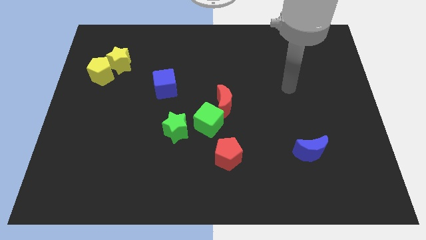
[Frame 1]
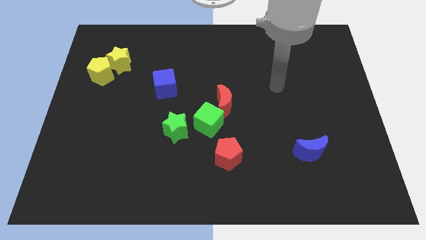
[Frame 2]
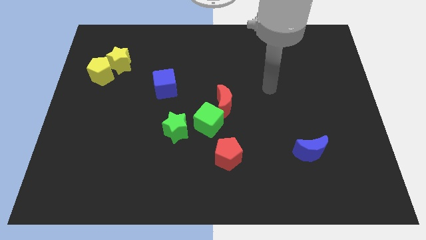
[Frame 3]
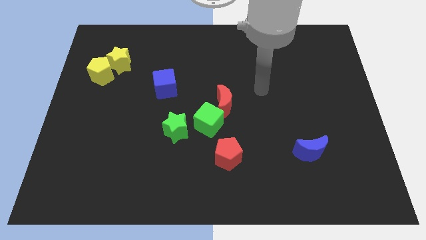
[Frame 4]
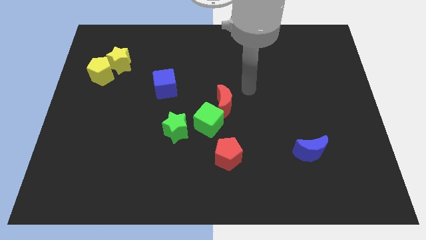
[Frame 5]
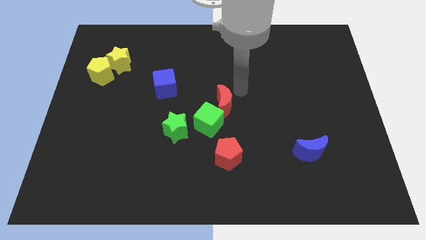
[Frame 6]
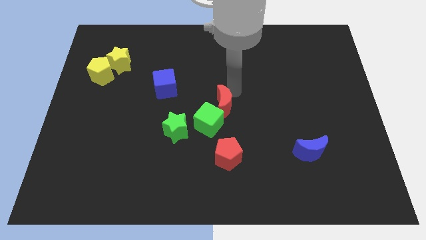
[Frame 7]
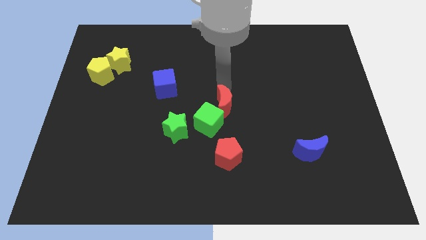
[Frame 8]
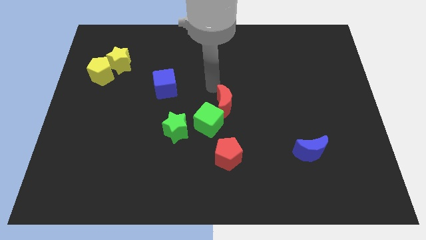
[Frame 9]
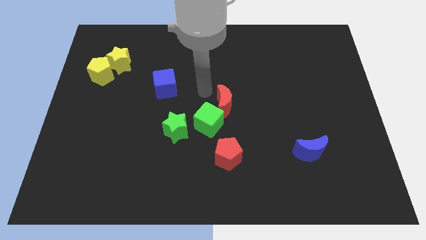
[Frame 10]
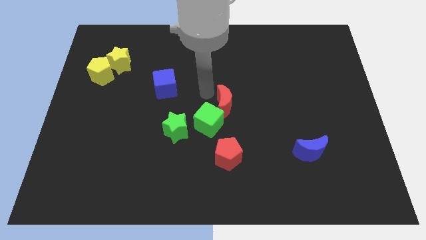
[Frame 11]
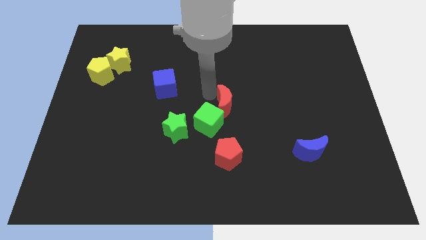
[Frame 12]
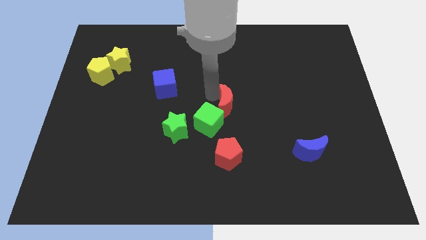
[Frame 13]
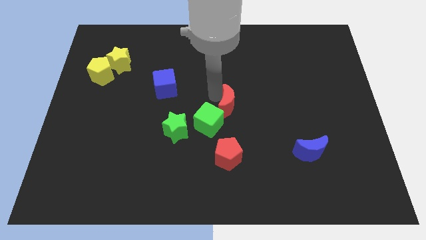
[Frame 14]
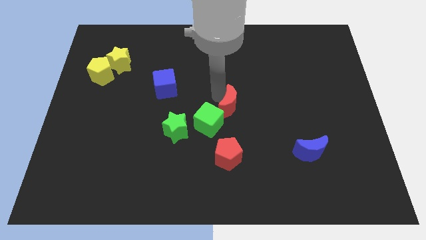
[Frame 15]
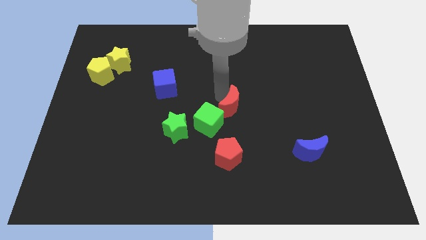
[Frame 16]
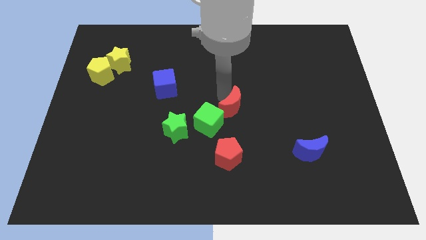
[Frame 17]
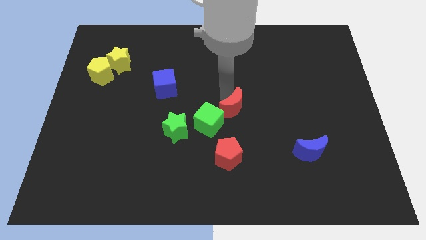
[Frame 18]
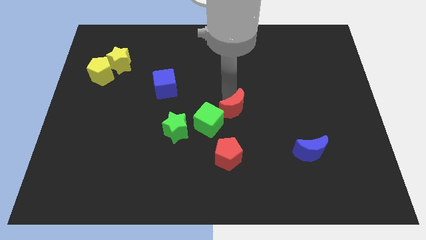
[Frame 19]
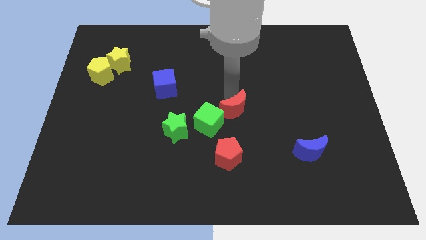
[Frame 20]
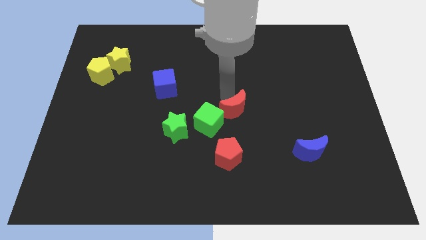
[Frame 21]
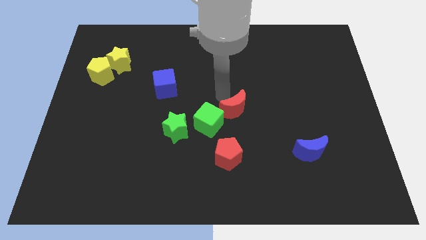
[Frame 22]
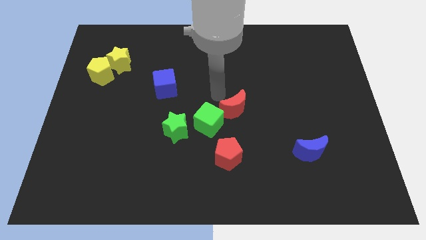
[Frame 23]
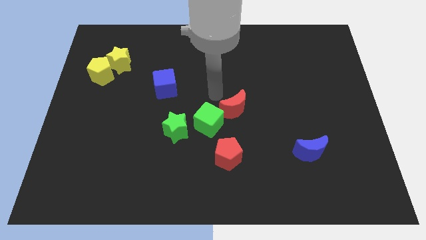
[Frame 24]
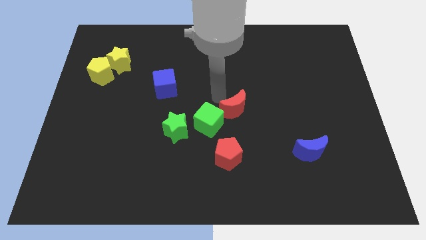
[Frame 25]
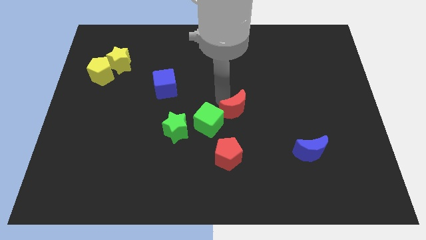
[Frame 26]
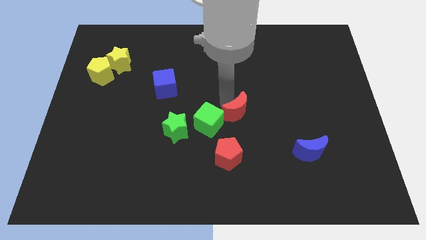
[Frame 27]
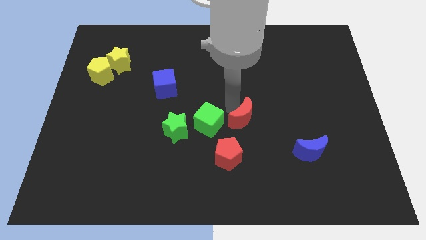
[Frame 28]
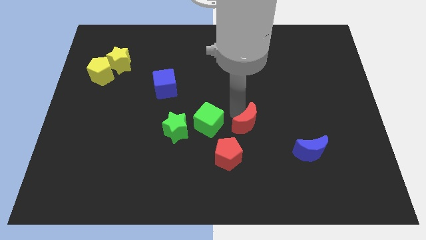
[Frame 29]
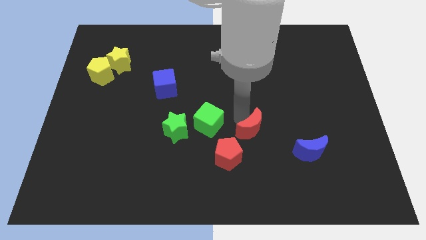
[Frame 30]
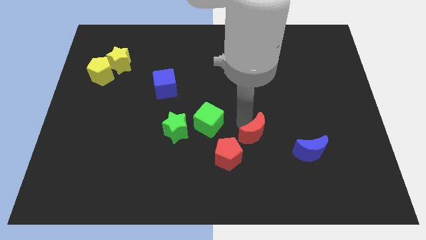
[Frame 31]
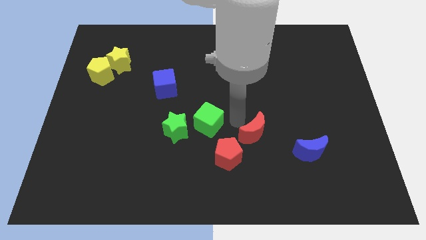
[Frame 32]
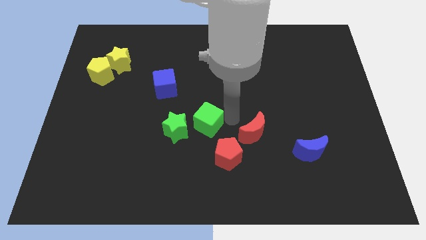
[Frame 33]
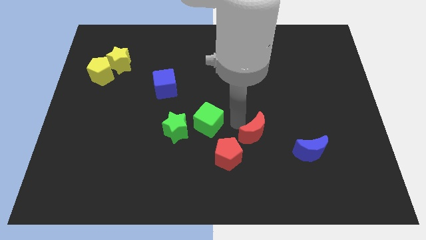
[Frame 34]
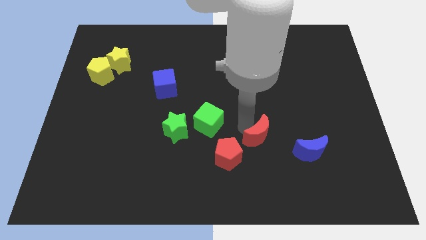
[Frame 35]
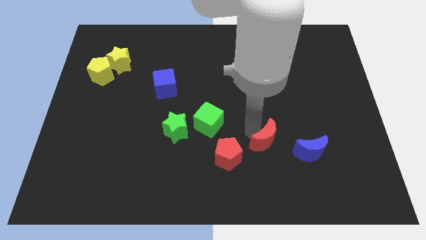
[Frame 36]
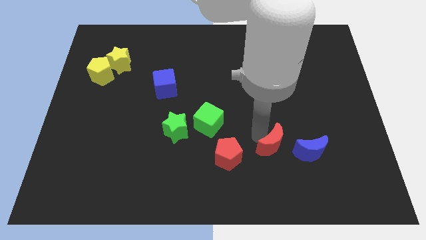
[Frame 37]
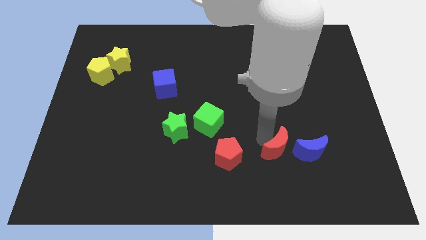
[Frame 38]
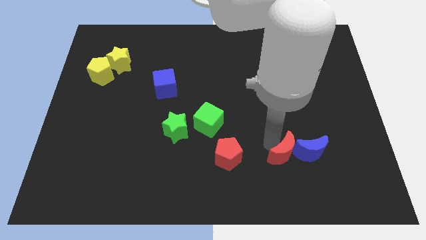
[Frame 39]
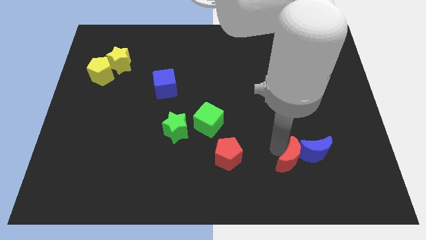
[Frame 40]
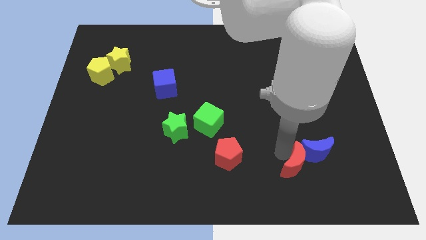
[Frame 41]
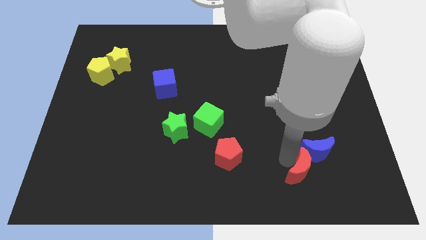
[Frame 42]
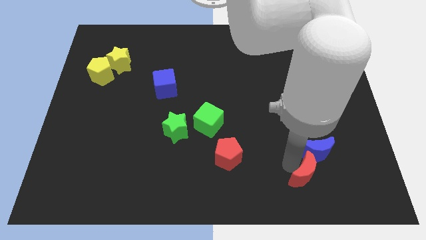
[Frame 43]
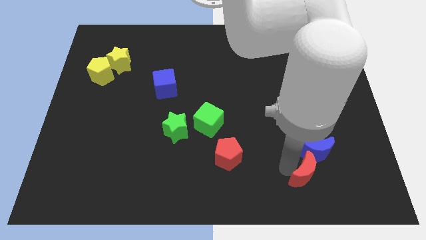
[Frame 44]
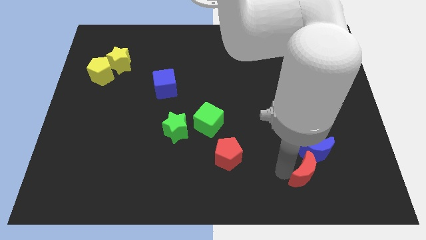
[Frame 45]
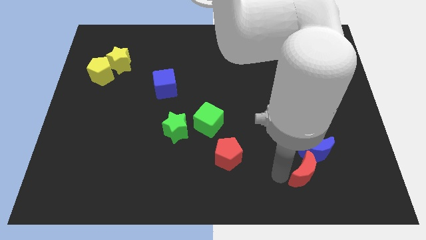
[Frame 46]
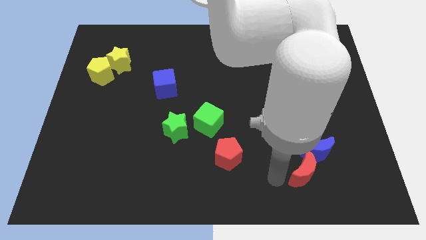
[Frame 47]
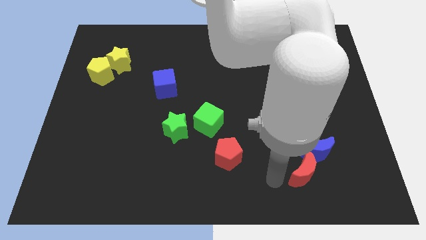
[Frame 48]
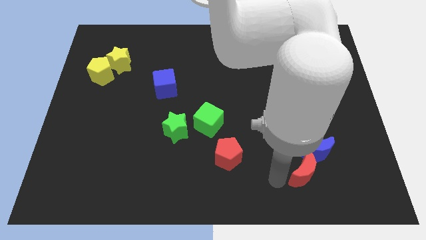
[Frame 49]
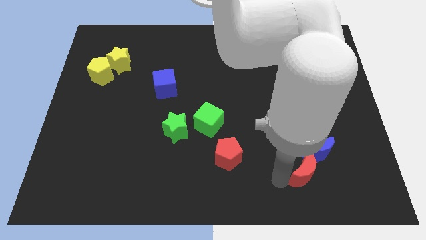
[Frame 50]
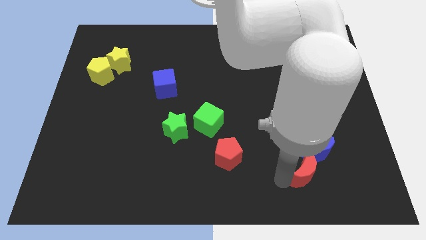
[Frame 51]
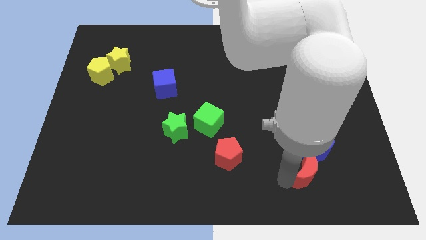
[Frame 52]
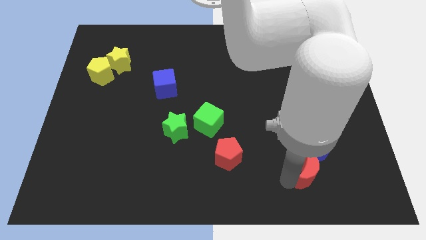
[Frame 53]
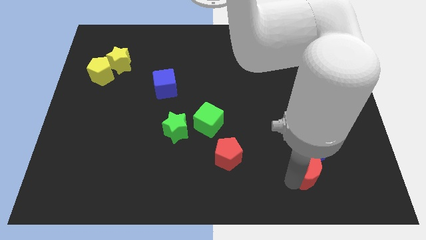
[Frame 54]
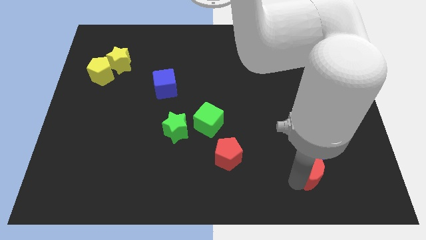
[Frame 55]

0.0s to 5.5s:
put the red moon to the bottom right side of the blue moon

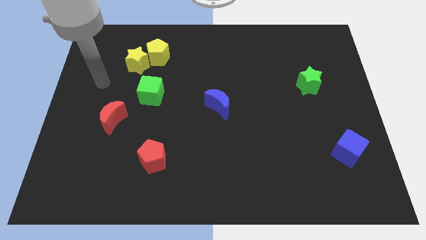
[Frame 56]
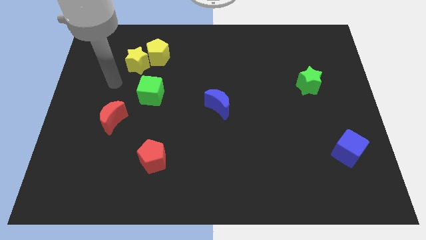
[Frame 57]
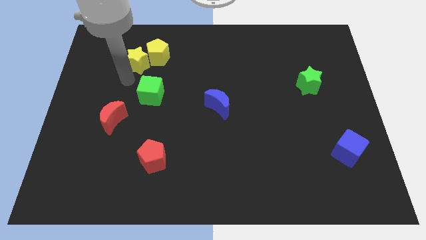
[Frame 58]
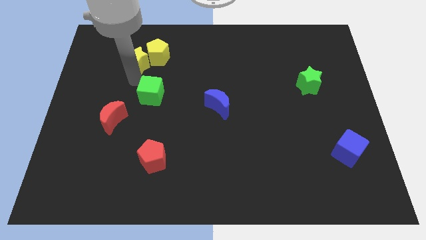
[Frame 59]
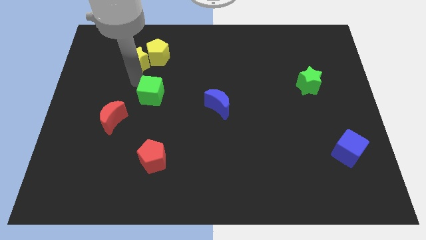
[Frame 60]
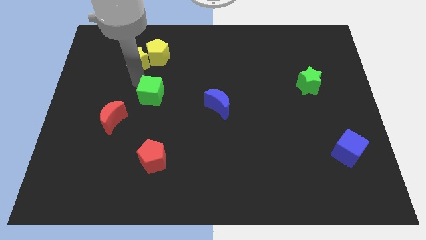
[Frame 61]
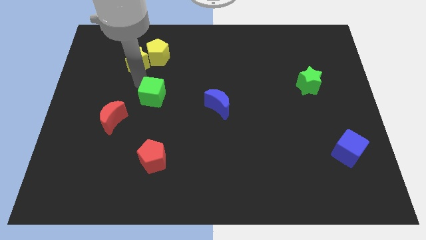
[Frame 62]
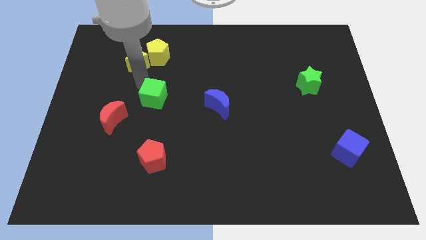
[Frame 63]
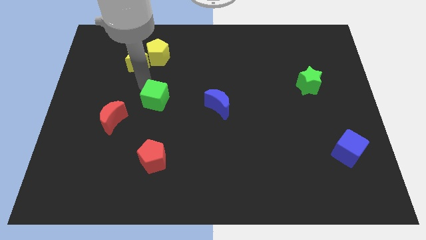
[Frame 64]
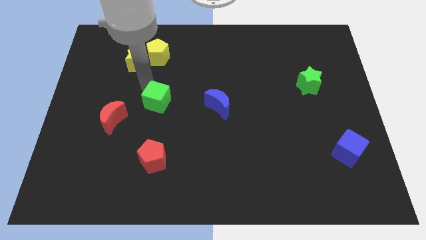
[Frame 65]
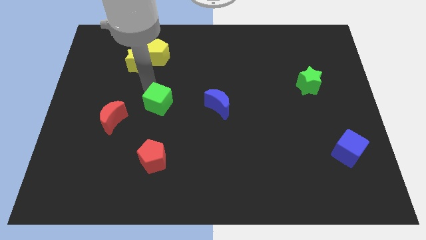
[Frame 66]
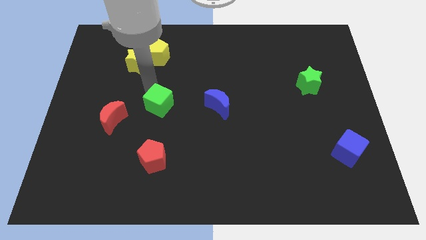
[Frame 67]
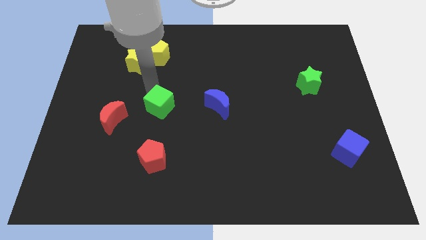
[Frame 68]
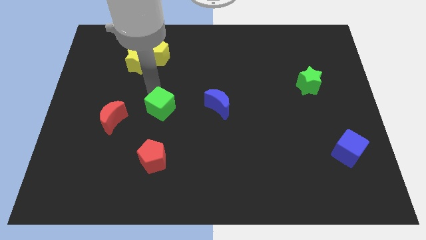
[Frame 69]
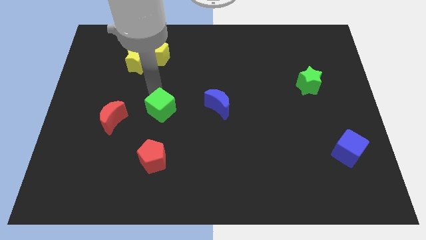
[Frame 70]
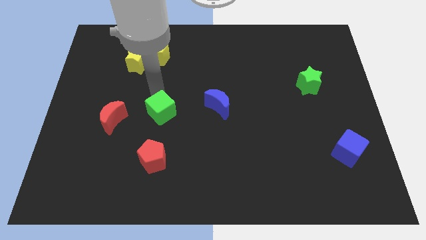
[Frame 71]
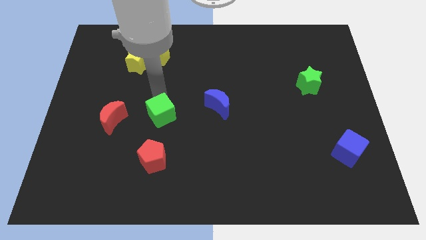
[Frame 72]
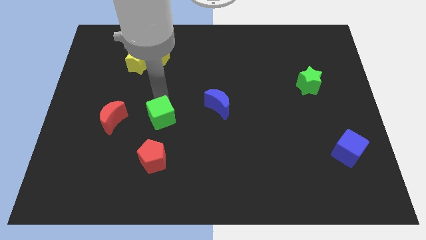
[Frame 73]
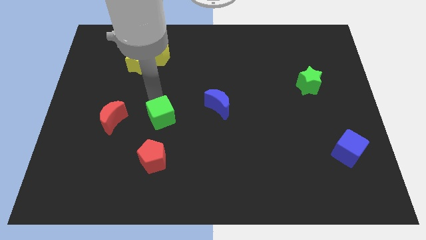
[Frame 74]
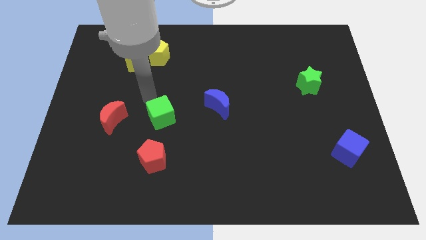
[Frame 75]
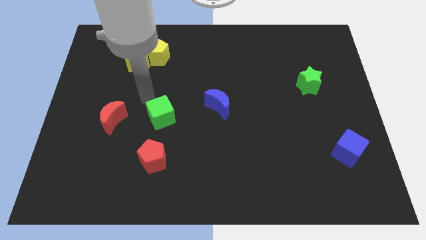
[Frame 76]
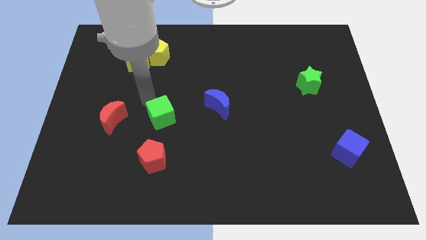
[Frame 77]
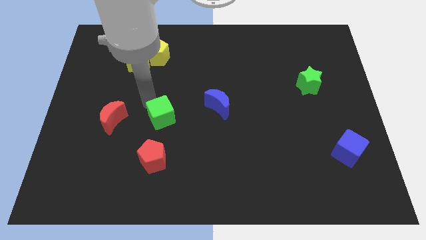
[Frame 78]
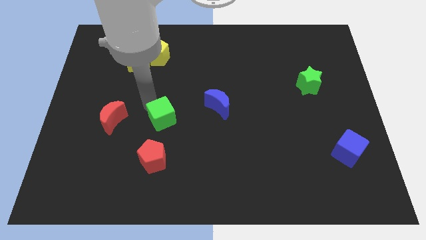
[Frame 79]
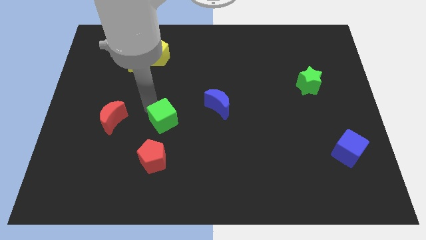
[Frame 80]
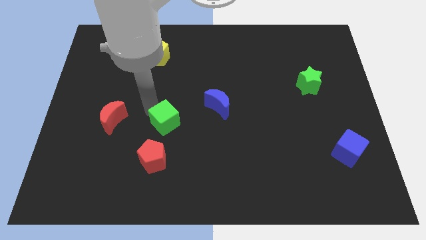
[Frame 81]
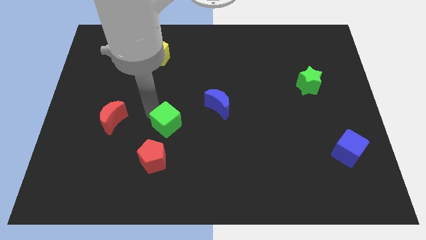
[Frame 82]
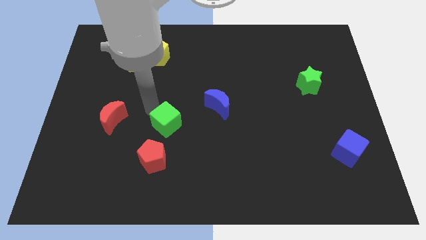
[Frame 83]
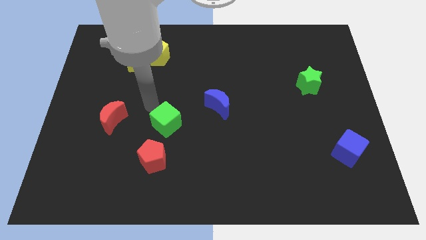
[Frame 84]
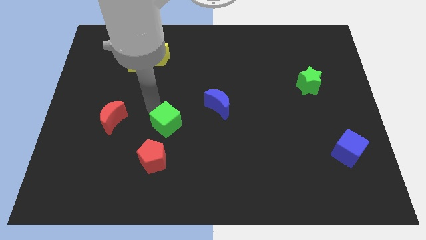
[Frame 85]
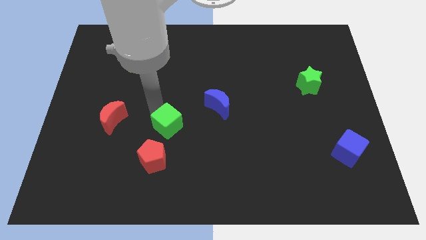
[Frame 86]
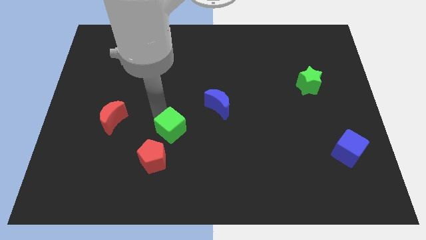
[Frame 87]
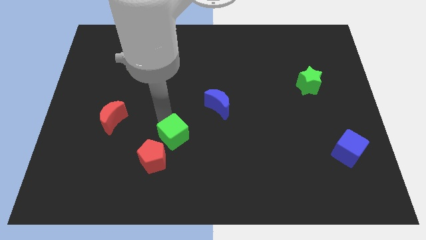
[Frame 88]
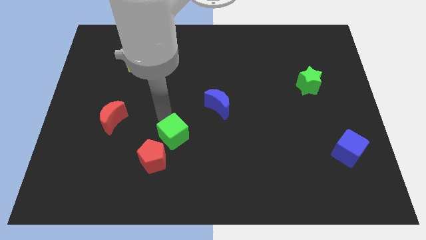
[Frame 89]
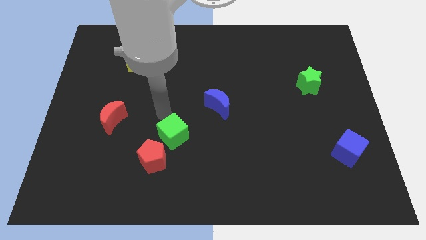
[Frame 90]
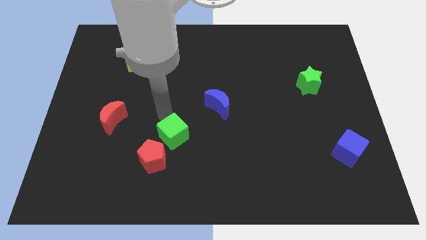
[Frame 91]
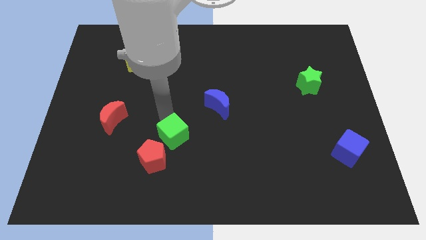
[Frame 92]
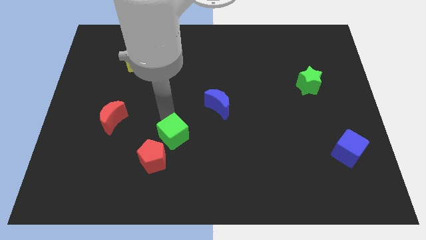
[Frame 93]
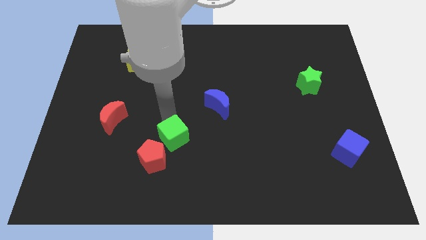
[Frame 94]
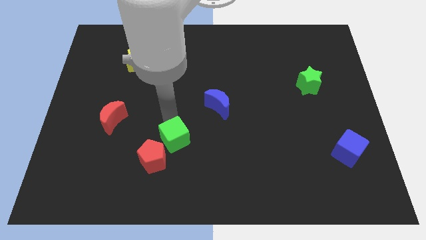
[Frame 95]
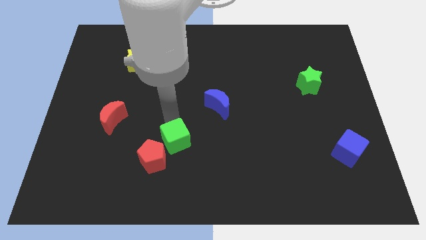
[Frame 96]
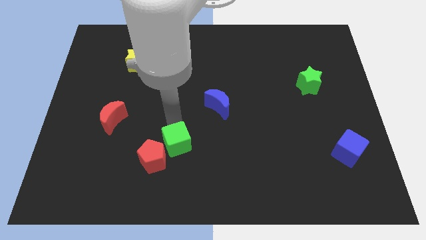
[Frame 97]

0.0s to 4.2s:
put the green cube to the right side of the red pentagon
